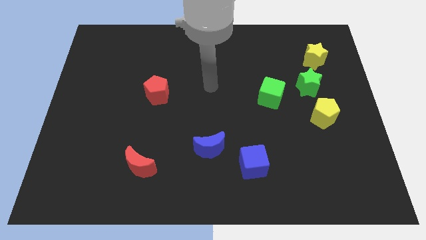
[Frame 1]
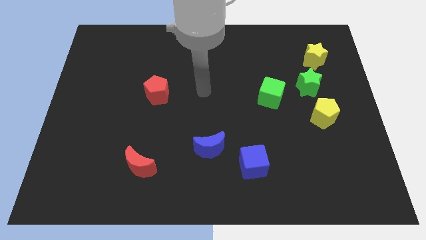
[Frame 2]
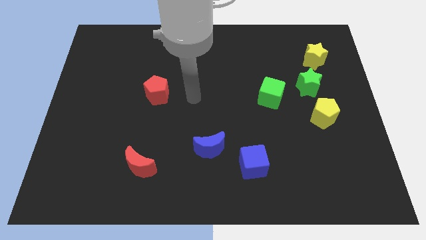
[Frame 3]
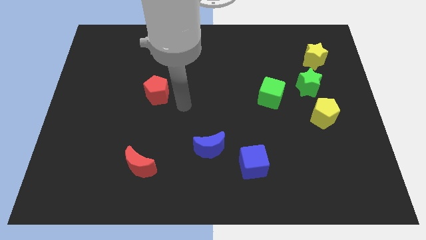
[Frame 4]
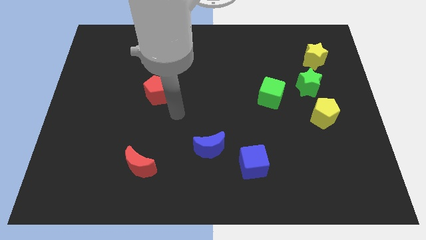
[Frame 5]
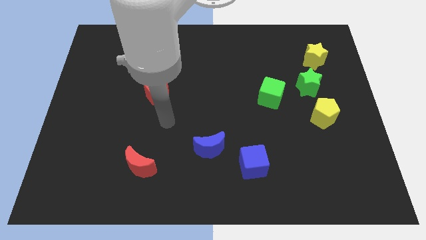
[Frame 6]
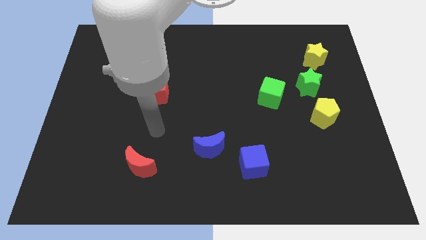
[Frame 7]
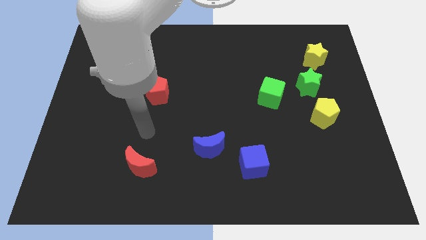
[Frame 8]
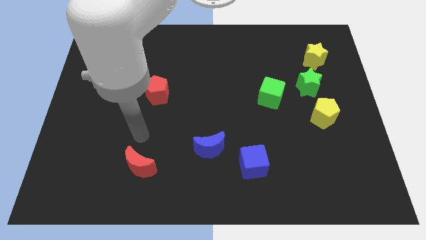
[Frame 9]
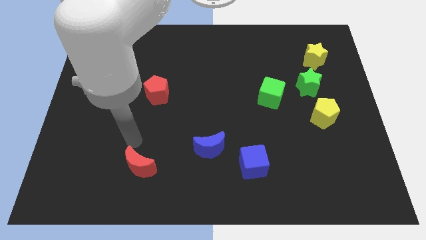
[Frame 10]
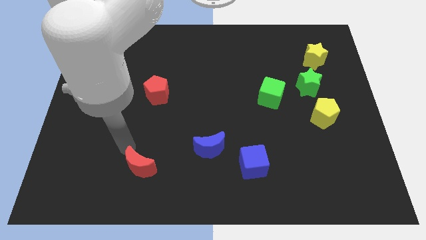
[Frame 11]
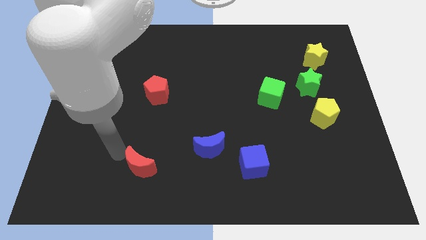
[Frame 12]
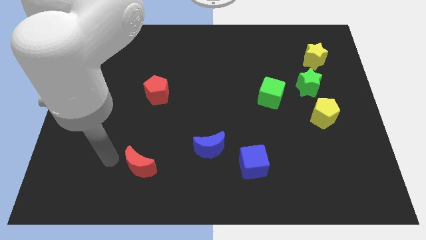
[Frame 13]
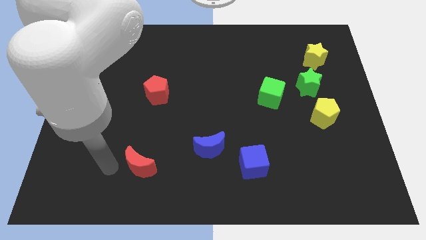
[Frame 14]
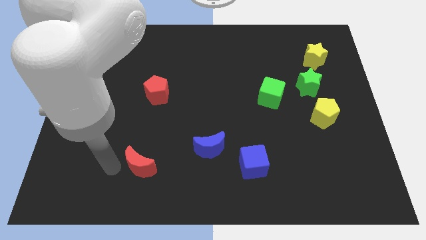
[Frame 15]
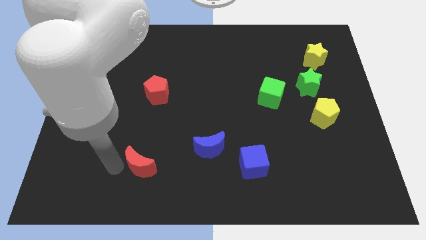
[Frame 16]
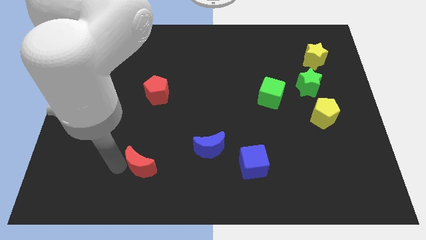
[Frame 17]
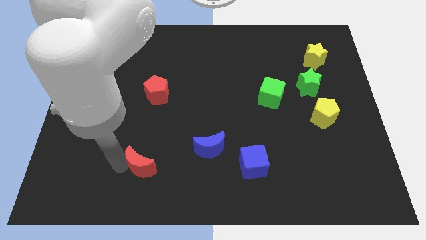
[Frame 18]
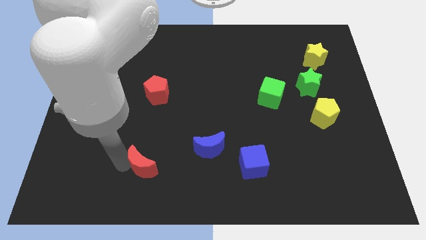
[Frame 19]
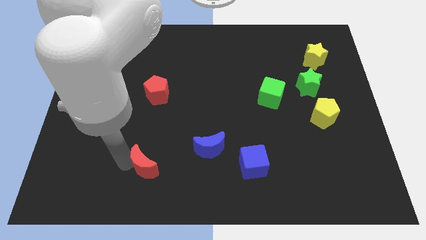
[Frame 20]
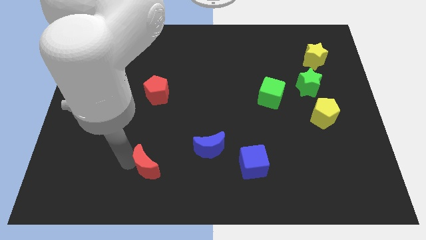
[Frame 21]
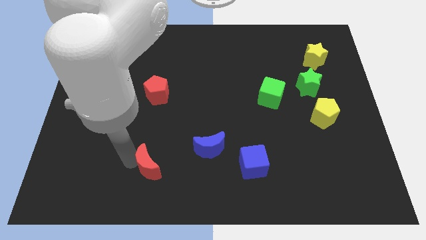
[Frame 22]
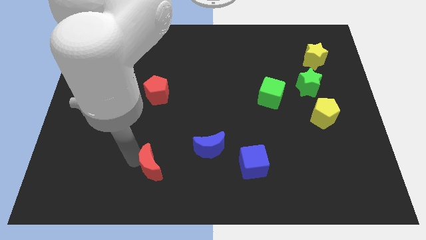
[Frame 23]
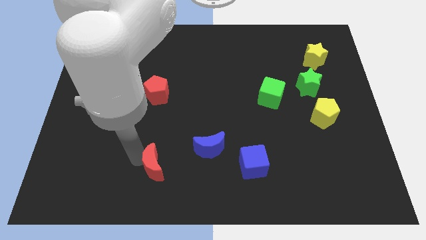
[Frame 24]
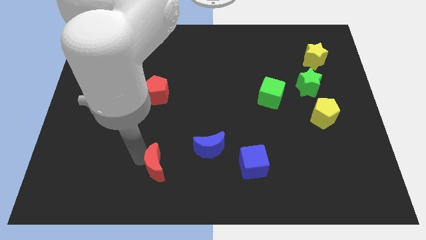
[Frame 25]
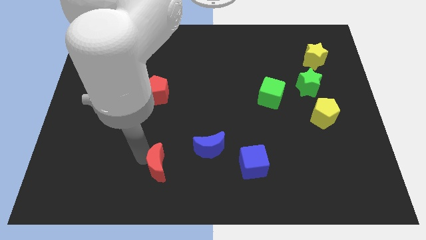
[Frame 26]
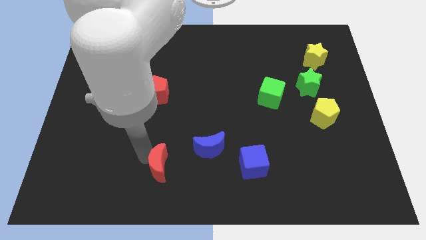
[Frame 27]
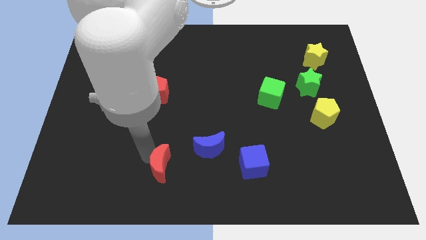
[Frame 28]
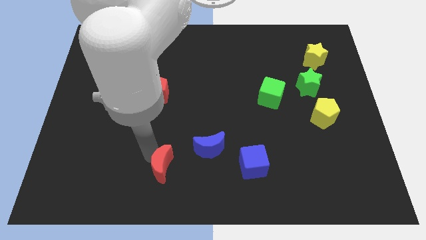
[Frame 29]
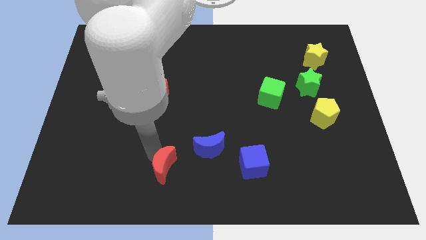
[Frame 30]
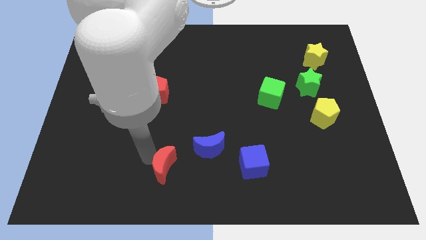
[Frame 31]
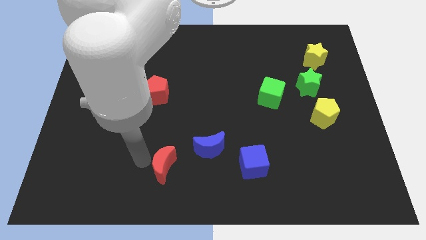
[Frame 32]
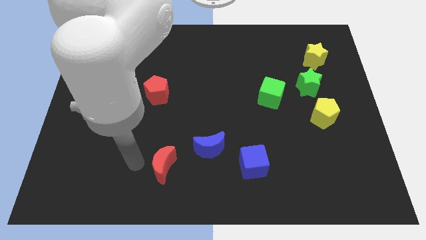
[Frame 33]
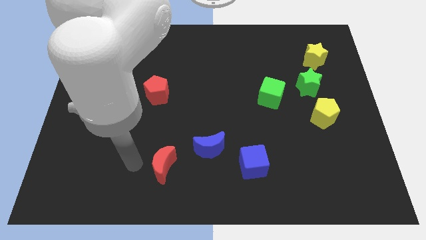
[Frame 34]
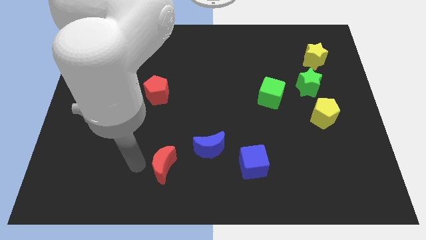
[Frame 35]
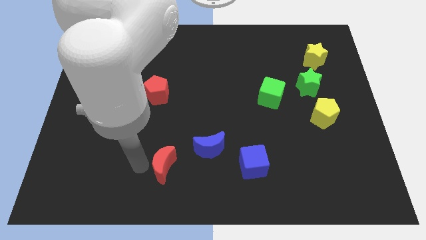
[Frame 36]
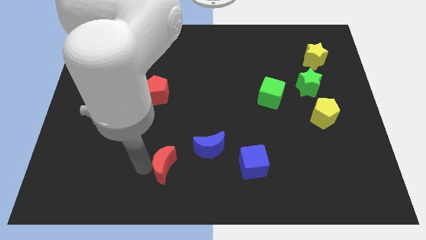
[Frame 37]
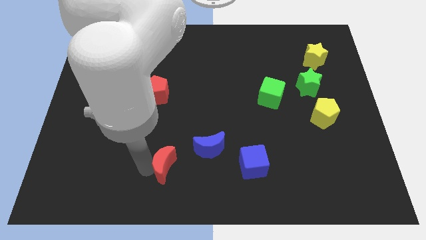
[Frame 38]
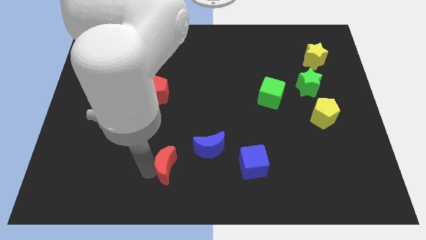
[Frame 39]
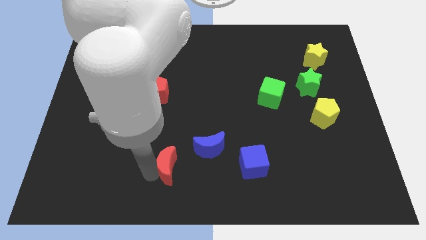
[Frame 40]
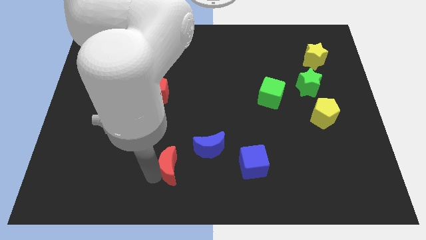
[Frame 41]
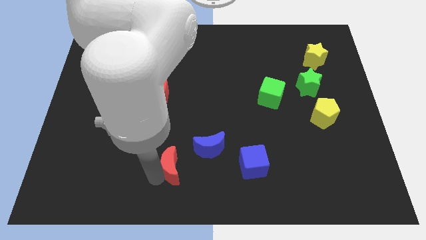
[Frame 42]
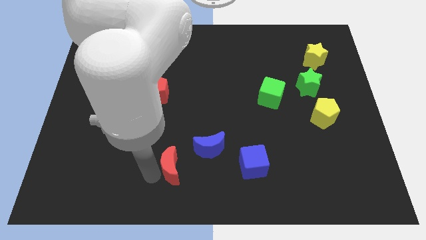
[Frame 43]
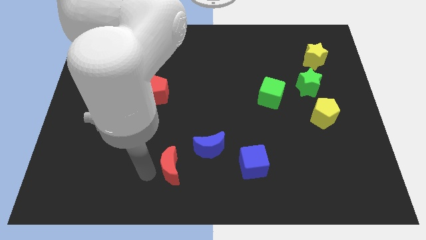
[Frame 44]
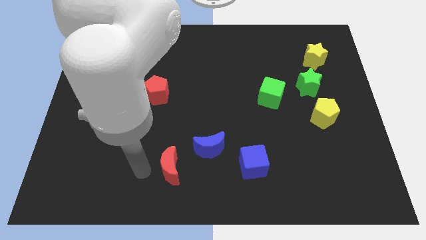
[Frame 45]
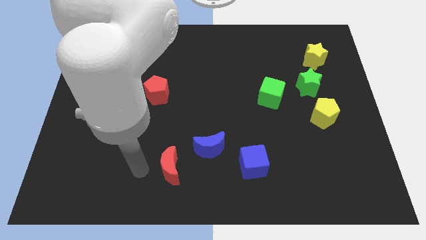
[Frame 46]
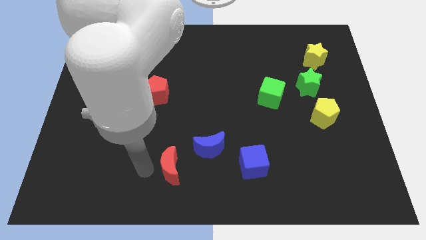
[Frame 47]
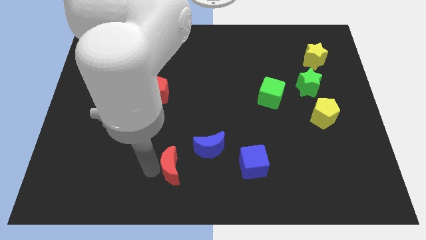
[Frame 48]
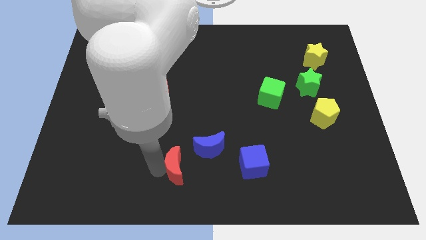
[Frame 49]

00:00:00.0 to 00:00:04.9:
slide the red moon a little to the right

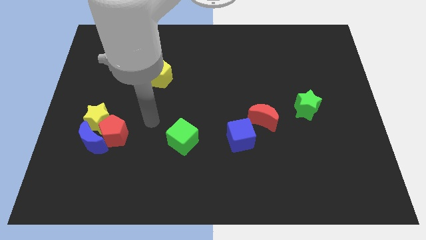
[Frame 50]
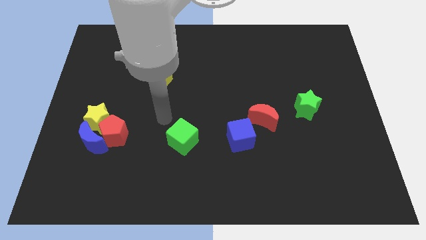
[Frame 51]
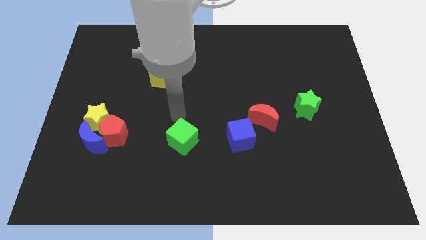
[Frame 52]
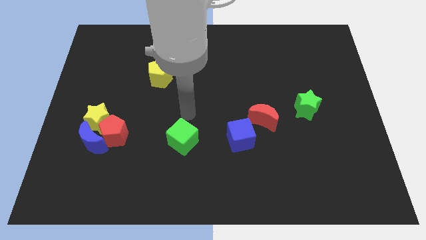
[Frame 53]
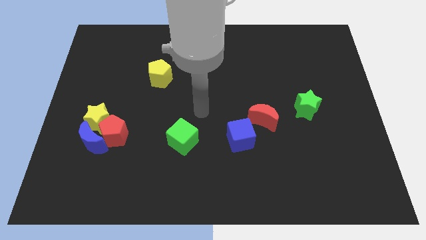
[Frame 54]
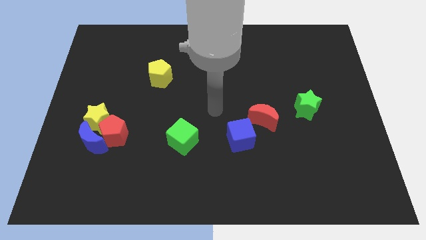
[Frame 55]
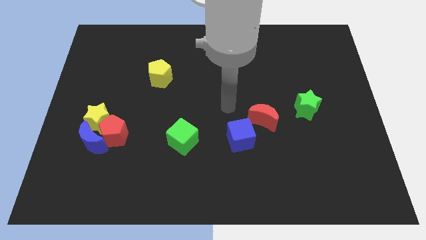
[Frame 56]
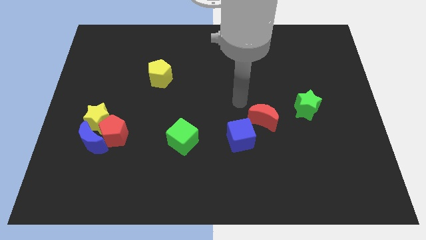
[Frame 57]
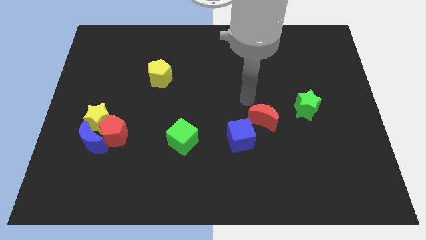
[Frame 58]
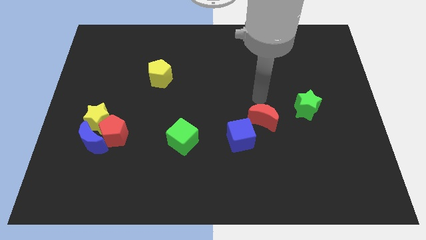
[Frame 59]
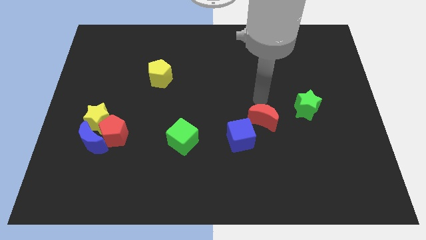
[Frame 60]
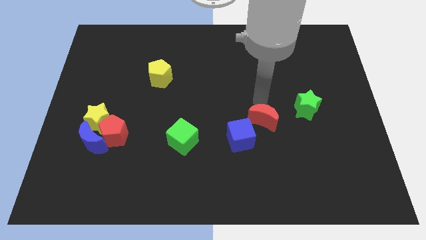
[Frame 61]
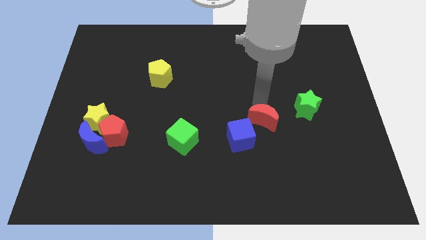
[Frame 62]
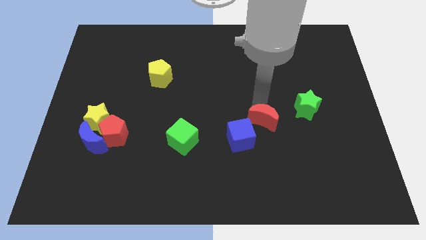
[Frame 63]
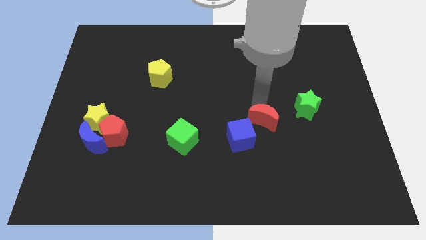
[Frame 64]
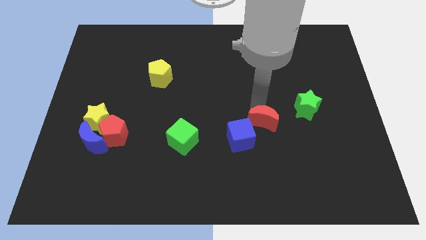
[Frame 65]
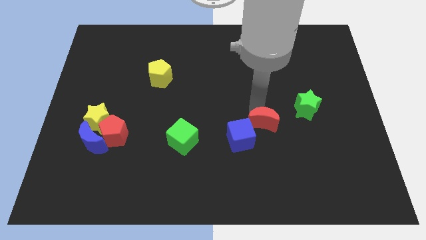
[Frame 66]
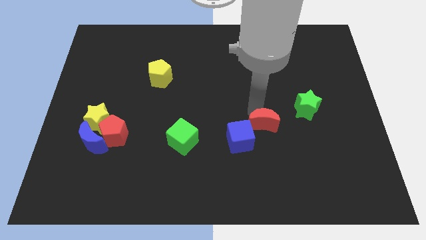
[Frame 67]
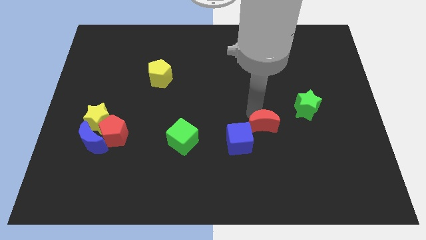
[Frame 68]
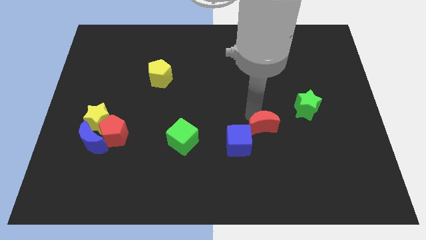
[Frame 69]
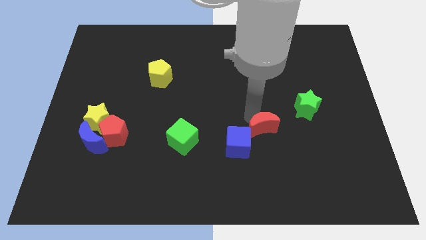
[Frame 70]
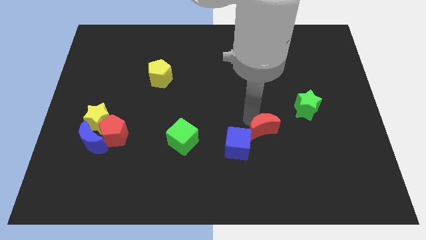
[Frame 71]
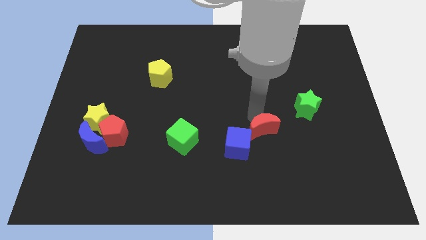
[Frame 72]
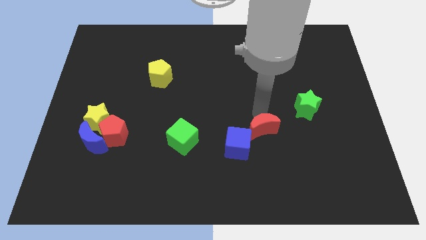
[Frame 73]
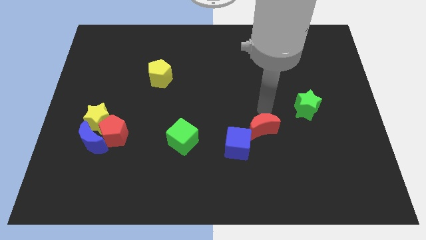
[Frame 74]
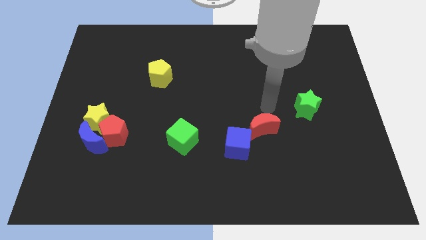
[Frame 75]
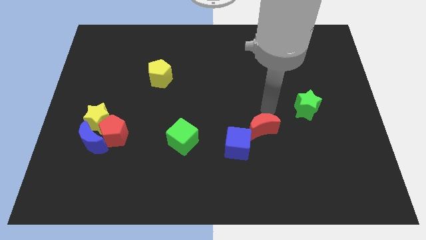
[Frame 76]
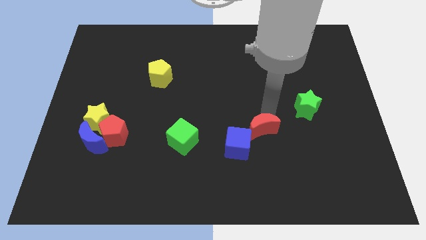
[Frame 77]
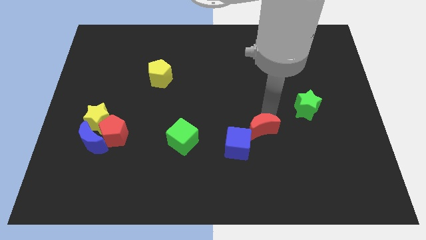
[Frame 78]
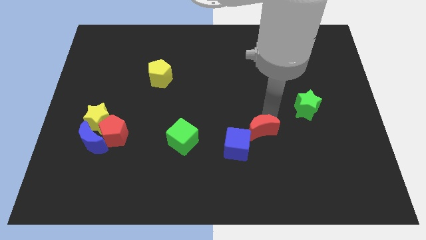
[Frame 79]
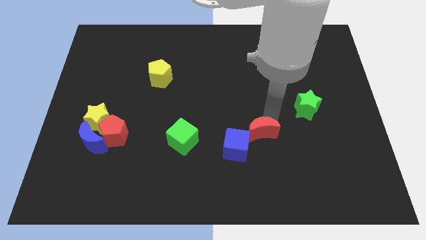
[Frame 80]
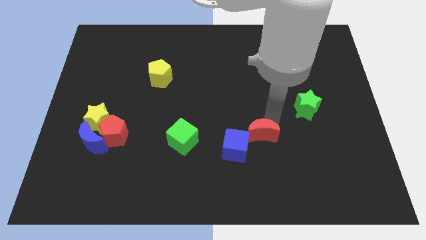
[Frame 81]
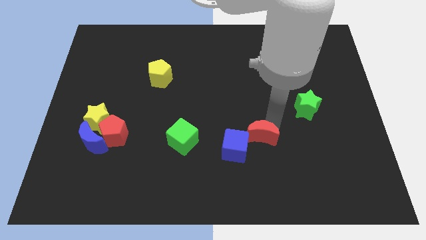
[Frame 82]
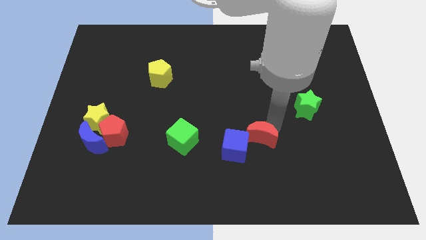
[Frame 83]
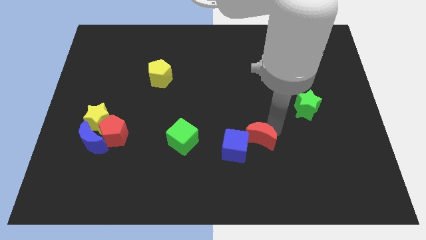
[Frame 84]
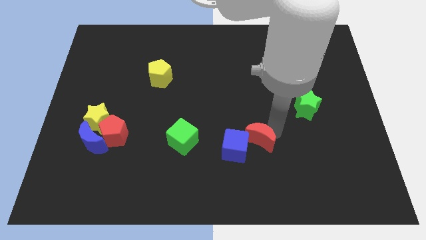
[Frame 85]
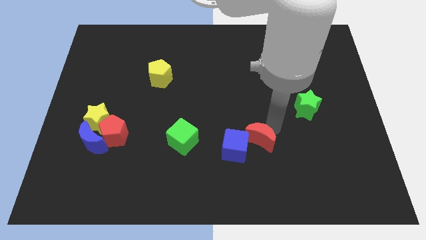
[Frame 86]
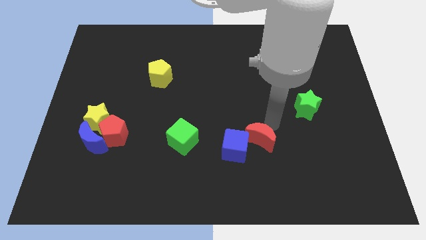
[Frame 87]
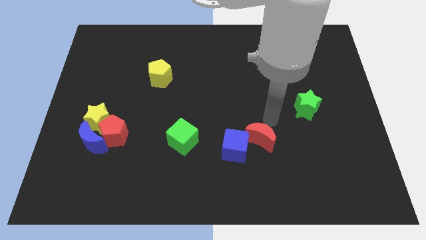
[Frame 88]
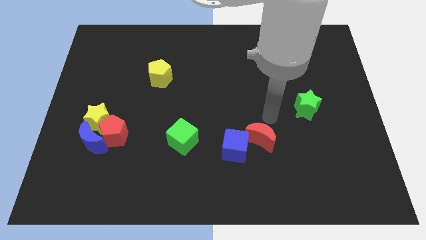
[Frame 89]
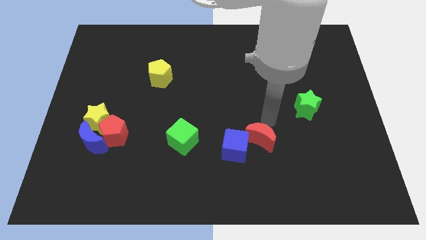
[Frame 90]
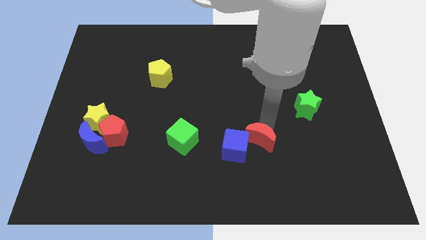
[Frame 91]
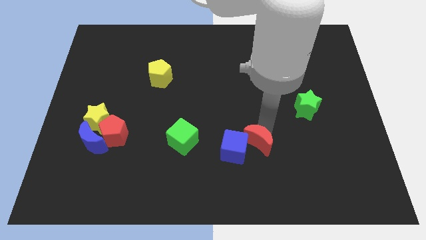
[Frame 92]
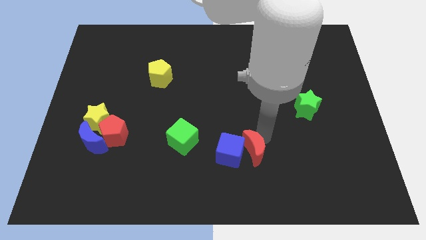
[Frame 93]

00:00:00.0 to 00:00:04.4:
slightly move the red moon downwards and left
